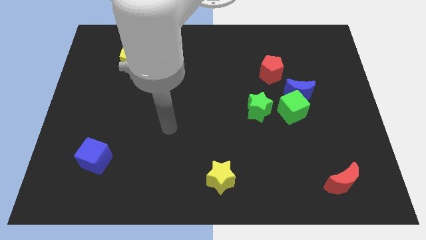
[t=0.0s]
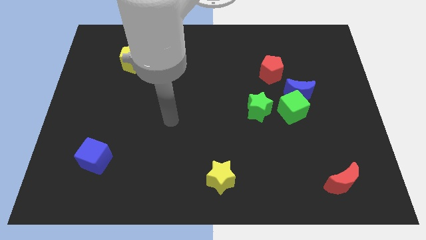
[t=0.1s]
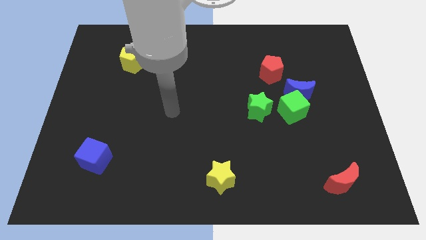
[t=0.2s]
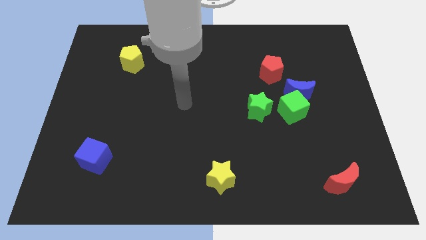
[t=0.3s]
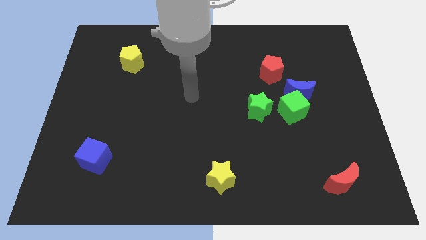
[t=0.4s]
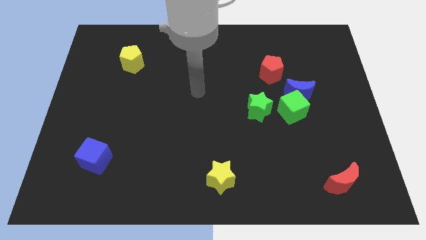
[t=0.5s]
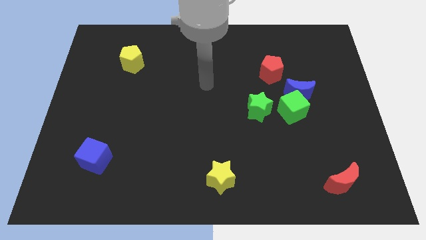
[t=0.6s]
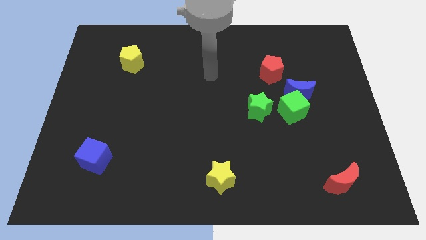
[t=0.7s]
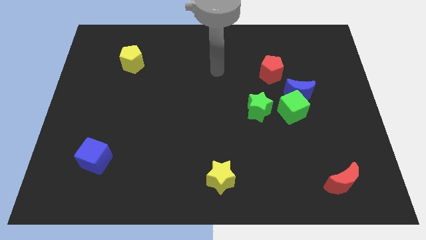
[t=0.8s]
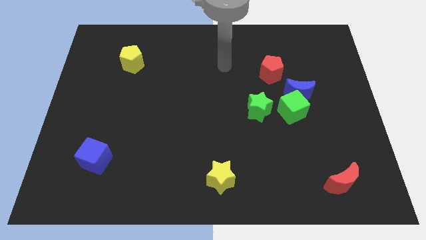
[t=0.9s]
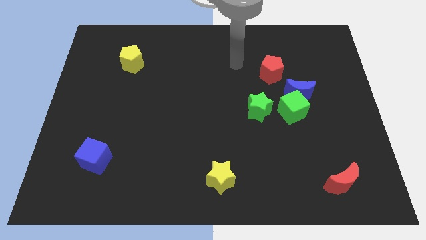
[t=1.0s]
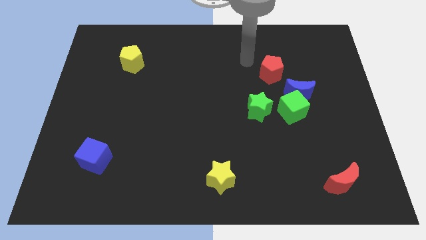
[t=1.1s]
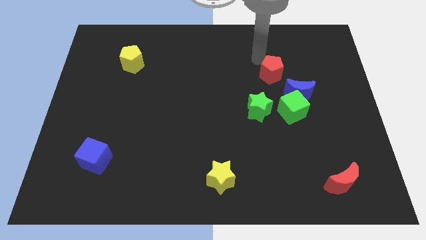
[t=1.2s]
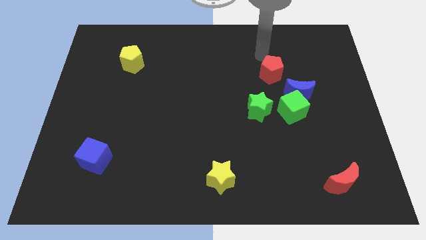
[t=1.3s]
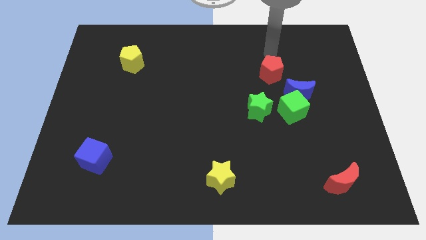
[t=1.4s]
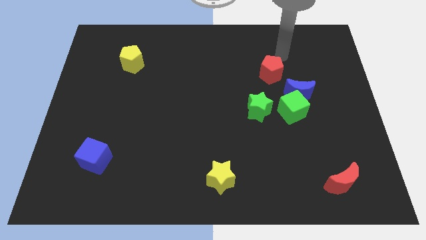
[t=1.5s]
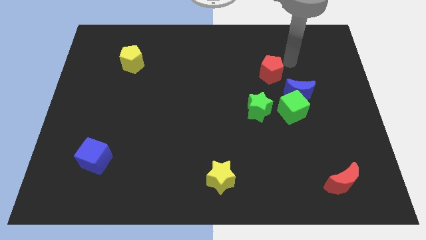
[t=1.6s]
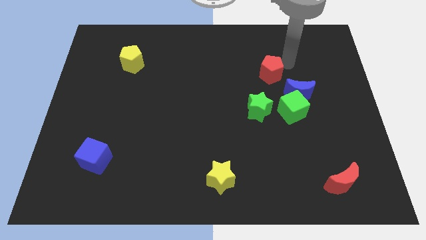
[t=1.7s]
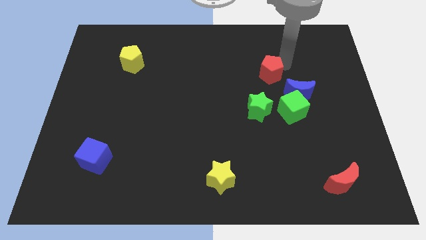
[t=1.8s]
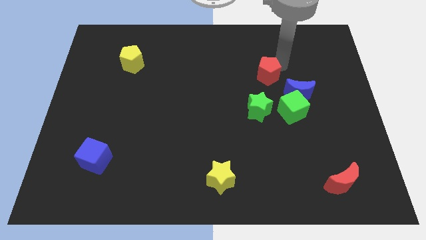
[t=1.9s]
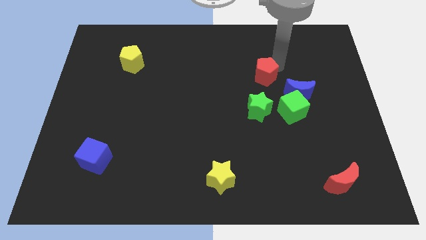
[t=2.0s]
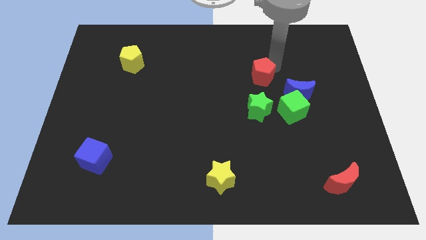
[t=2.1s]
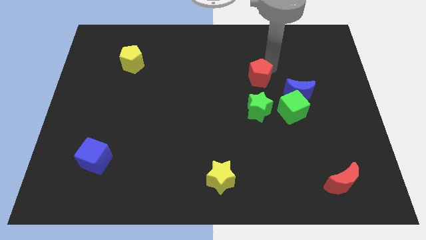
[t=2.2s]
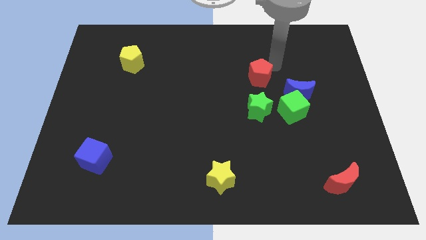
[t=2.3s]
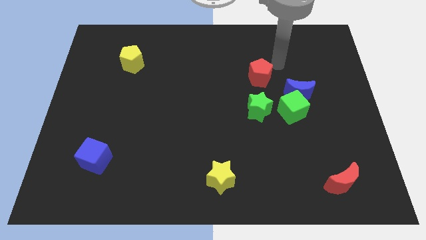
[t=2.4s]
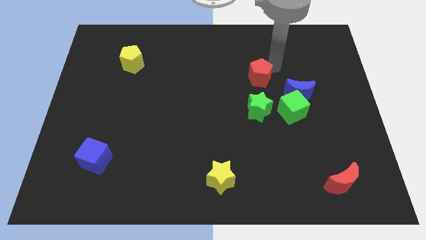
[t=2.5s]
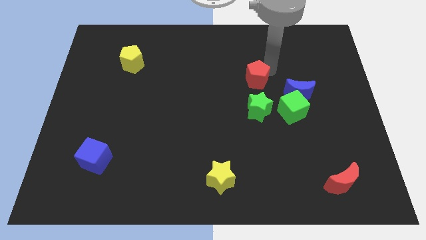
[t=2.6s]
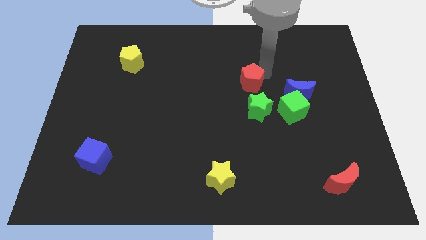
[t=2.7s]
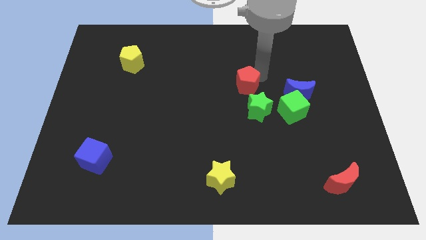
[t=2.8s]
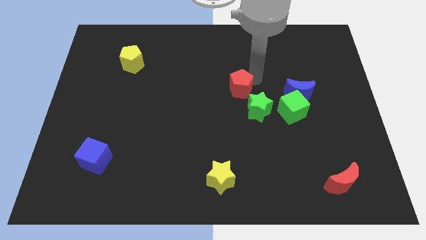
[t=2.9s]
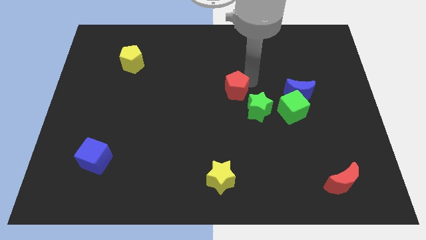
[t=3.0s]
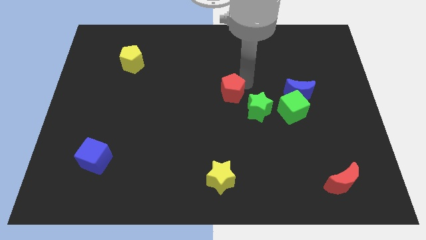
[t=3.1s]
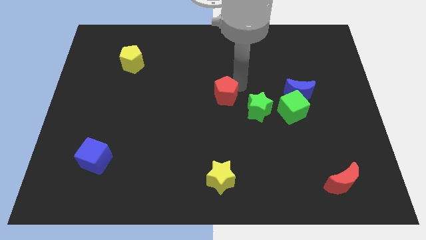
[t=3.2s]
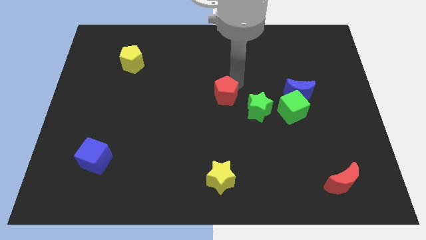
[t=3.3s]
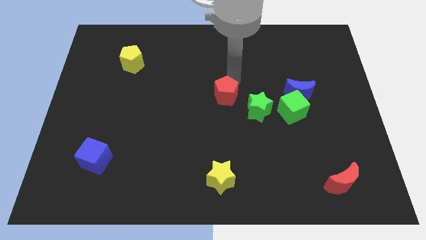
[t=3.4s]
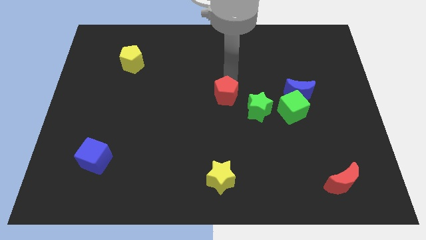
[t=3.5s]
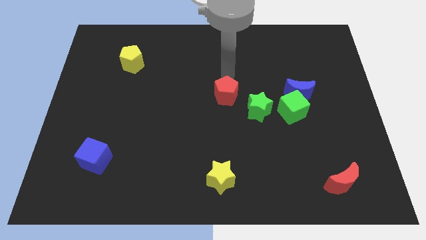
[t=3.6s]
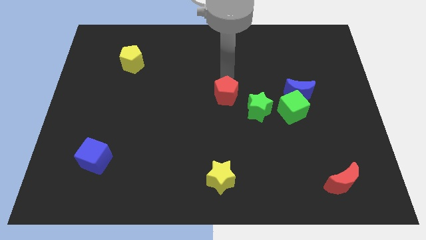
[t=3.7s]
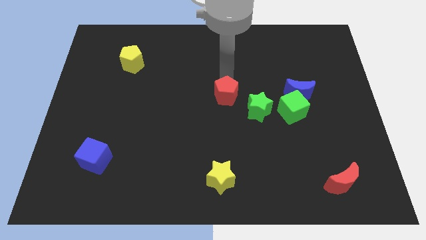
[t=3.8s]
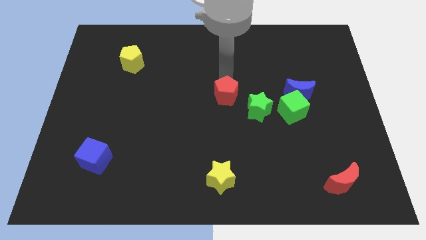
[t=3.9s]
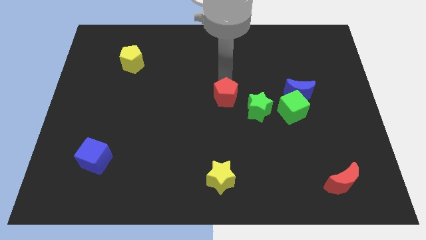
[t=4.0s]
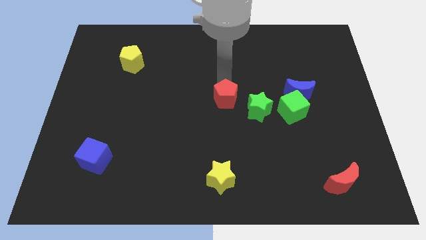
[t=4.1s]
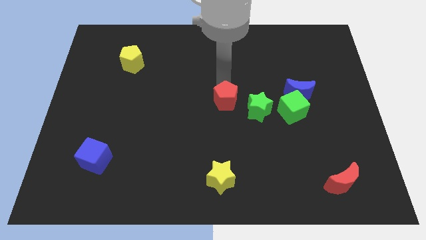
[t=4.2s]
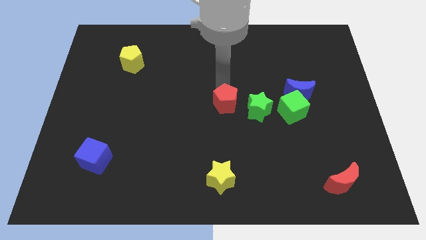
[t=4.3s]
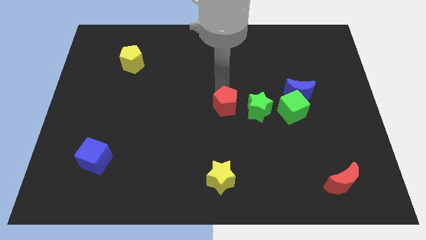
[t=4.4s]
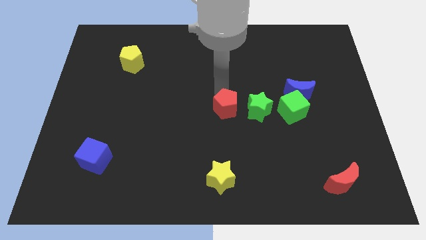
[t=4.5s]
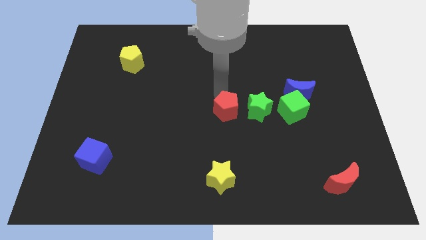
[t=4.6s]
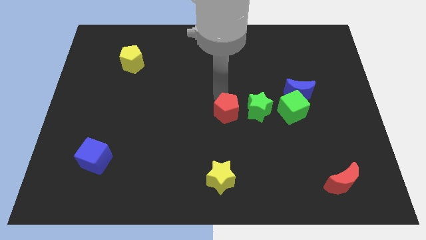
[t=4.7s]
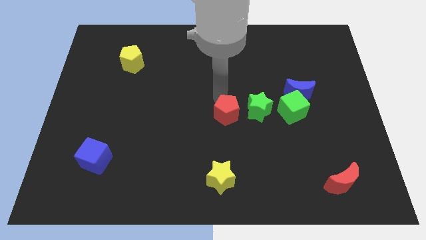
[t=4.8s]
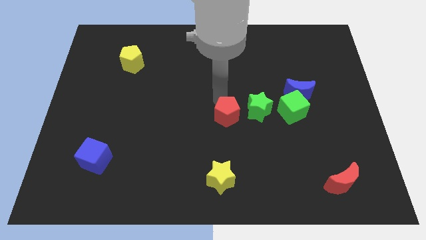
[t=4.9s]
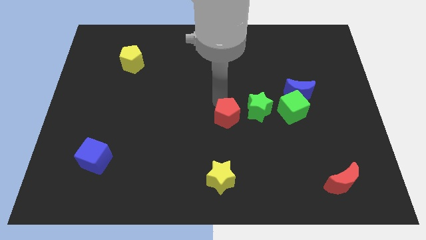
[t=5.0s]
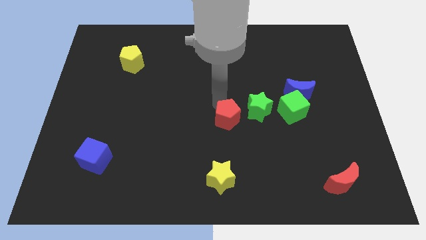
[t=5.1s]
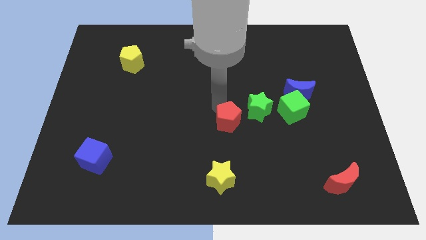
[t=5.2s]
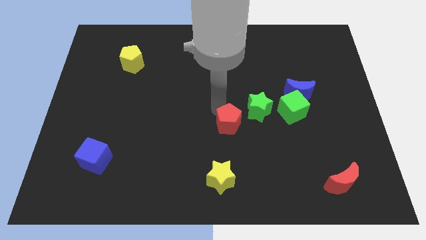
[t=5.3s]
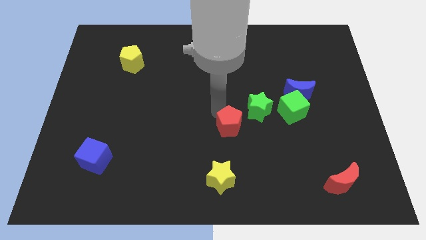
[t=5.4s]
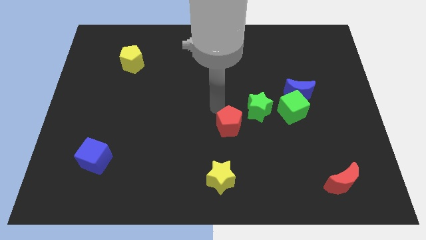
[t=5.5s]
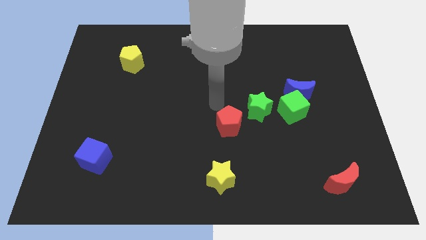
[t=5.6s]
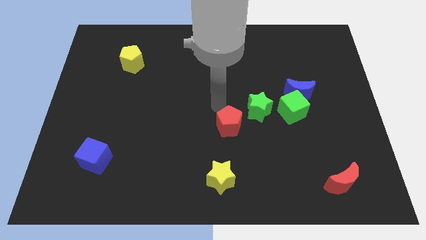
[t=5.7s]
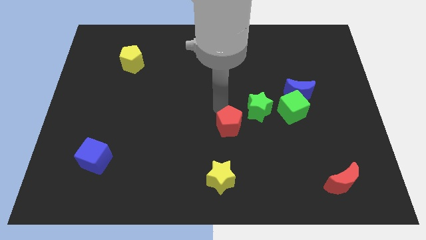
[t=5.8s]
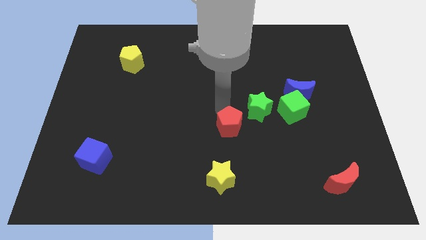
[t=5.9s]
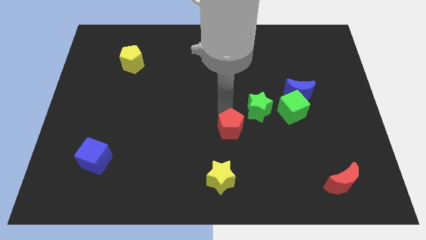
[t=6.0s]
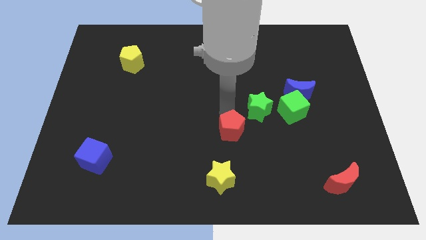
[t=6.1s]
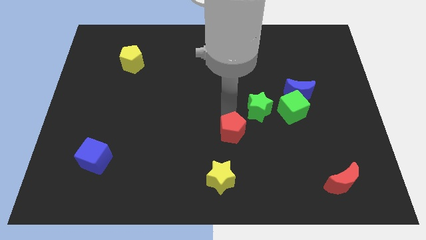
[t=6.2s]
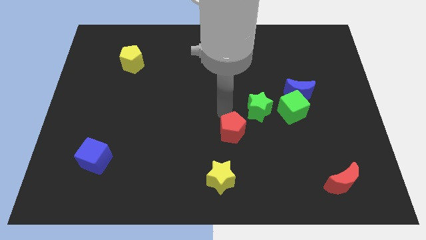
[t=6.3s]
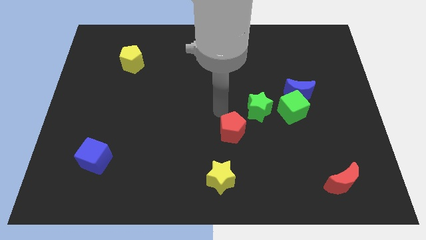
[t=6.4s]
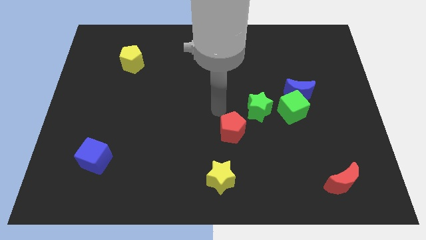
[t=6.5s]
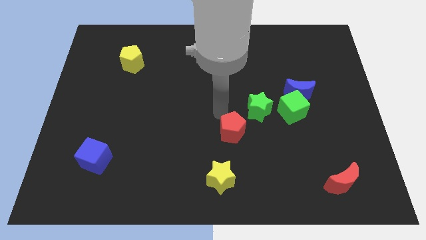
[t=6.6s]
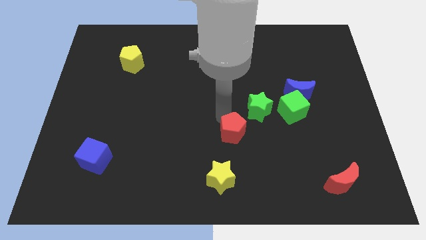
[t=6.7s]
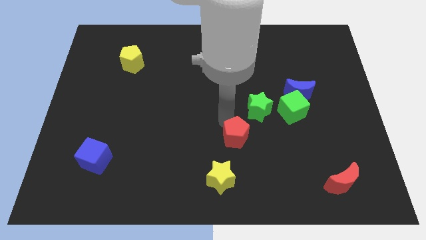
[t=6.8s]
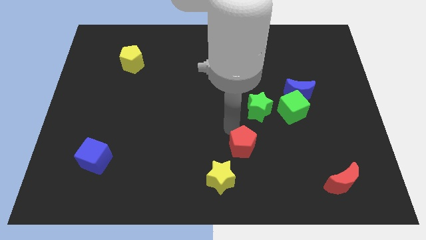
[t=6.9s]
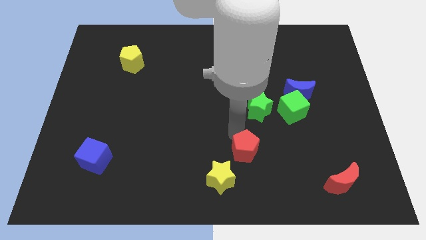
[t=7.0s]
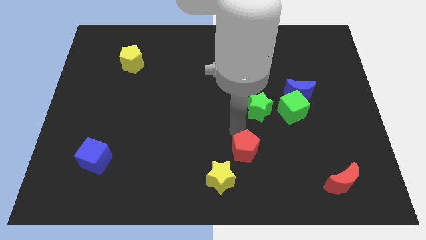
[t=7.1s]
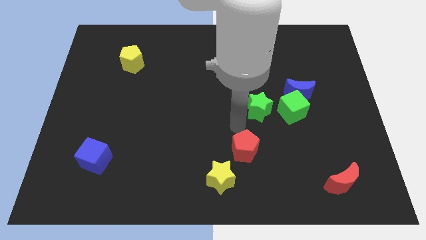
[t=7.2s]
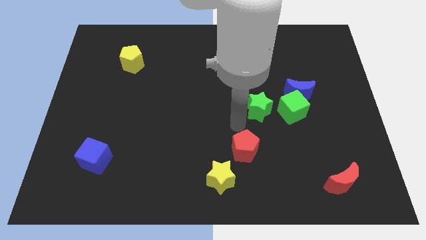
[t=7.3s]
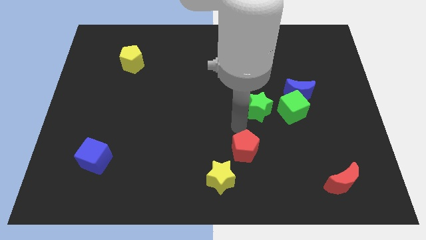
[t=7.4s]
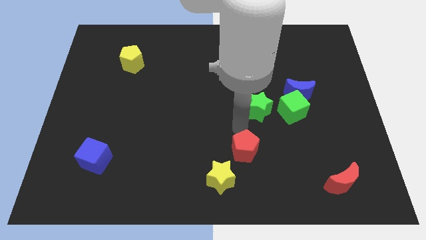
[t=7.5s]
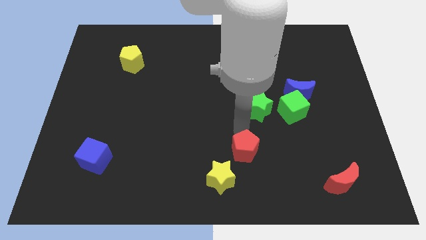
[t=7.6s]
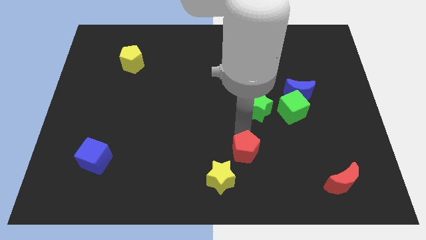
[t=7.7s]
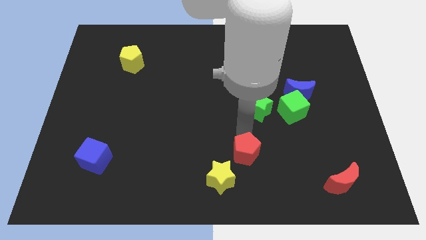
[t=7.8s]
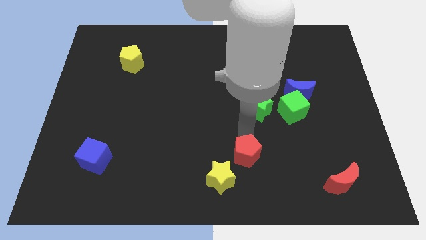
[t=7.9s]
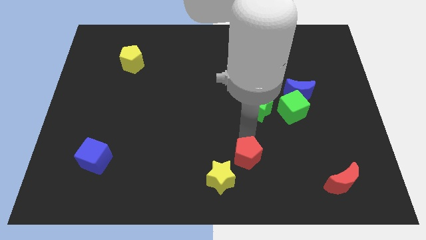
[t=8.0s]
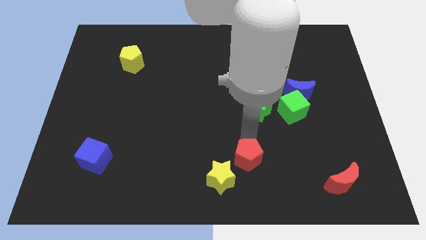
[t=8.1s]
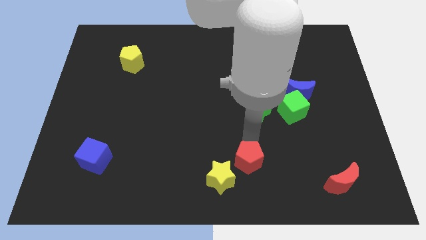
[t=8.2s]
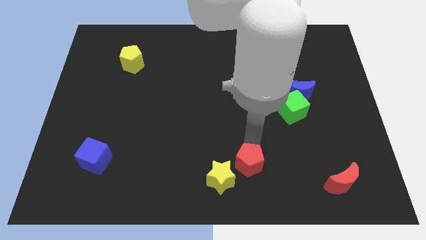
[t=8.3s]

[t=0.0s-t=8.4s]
slide the red pentagon to the bottom
